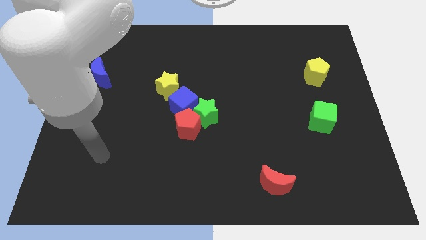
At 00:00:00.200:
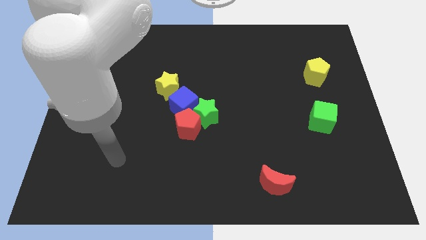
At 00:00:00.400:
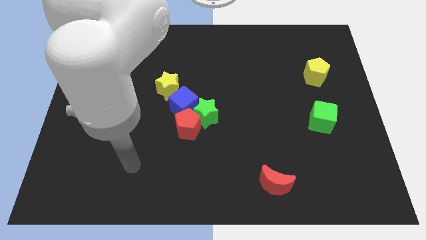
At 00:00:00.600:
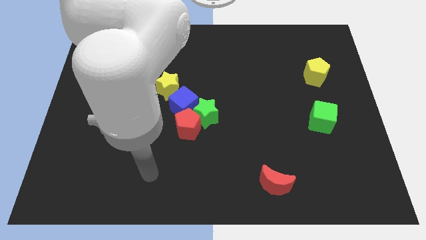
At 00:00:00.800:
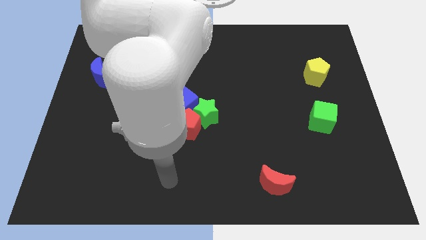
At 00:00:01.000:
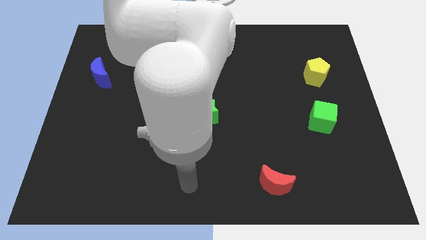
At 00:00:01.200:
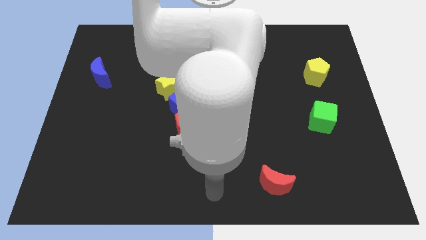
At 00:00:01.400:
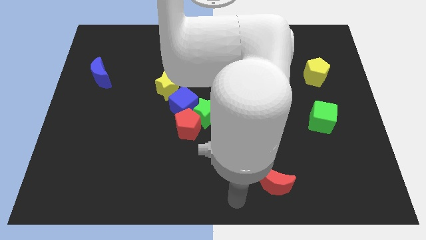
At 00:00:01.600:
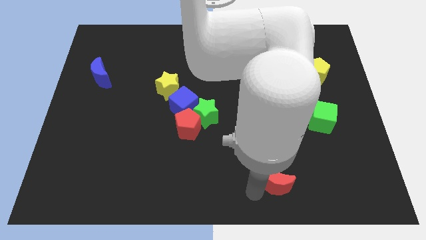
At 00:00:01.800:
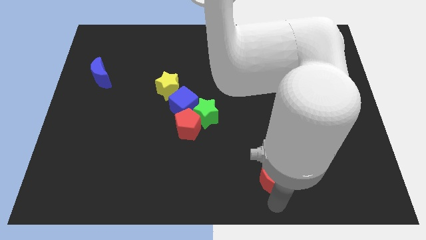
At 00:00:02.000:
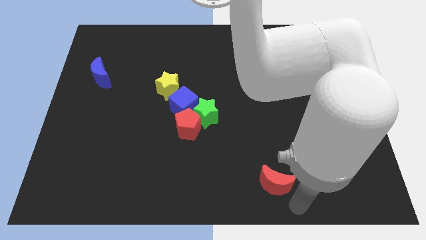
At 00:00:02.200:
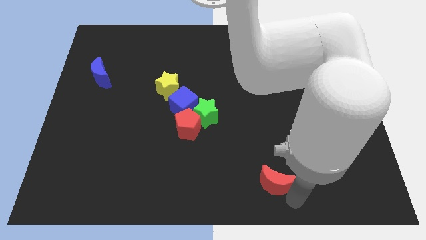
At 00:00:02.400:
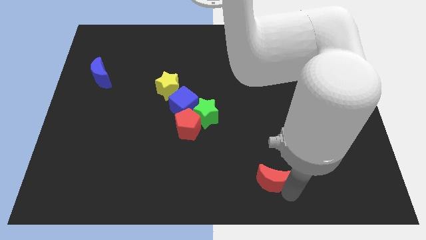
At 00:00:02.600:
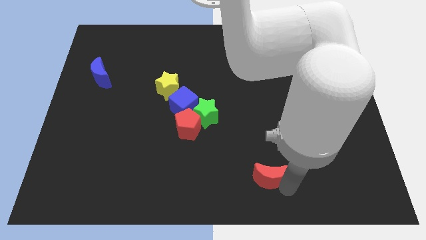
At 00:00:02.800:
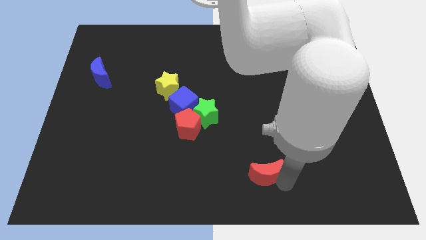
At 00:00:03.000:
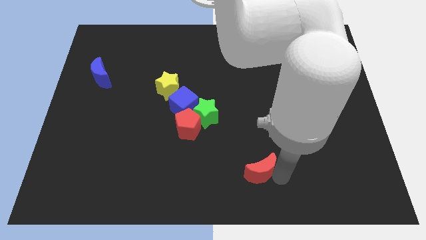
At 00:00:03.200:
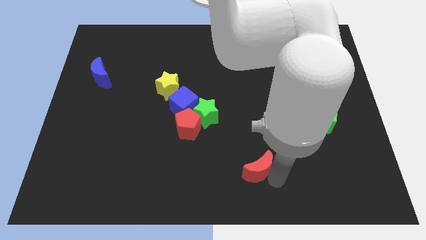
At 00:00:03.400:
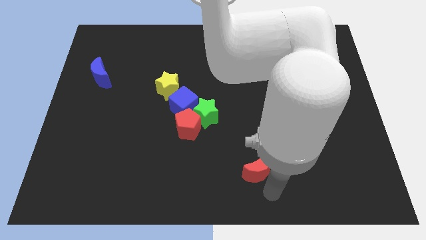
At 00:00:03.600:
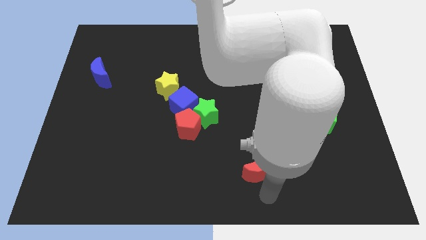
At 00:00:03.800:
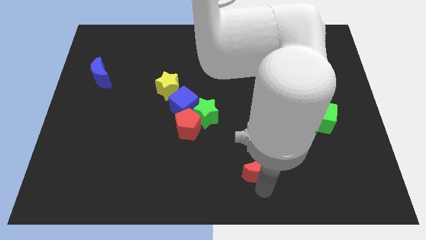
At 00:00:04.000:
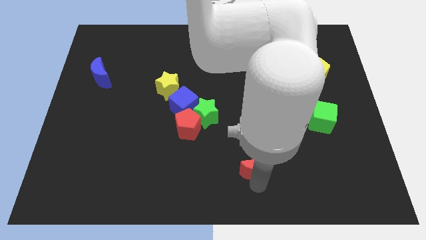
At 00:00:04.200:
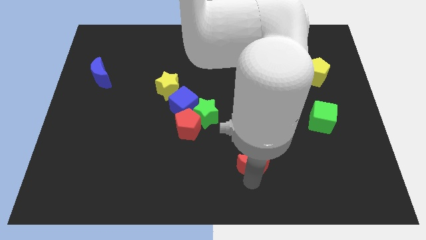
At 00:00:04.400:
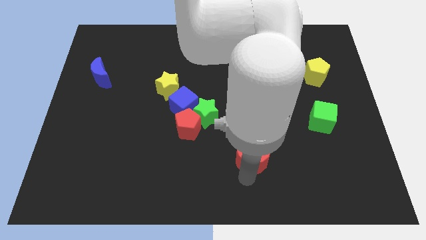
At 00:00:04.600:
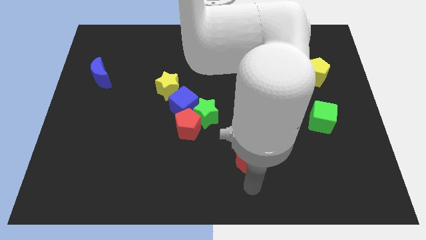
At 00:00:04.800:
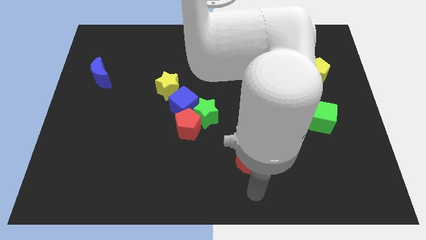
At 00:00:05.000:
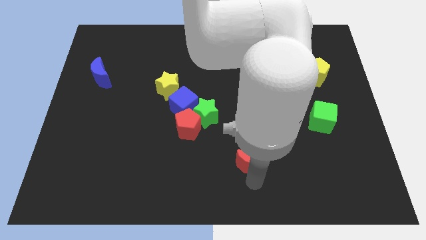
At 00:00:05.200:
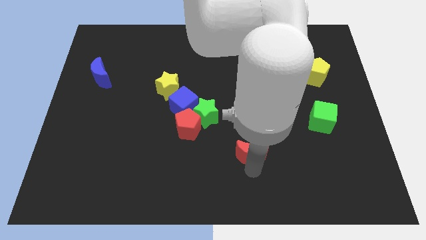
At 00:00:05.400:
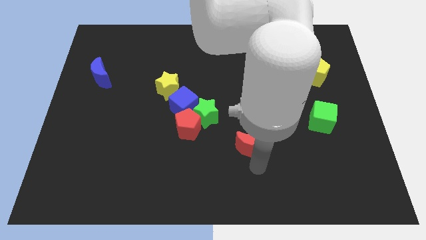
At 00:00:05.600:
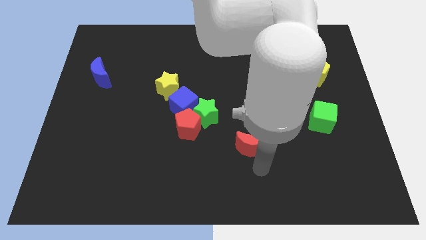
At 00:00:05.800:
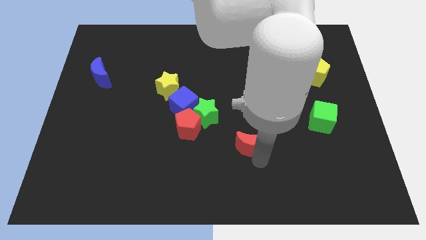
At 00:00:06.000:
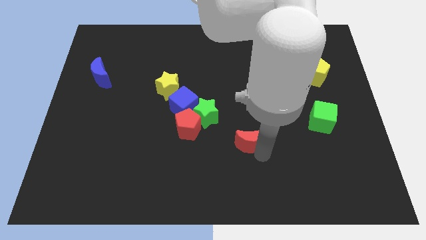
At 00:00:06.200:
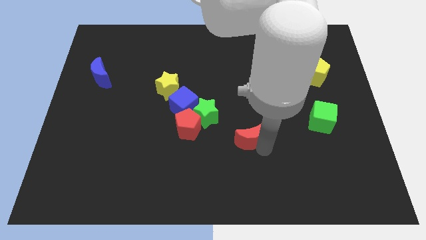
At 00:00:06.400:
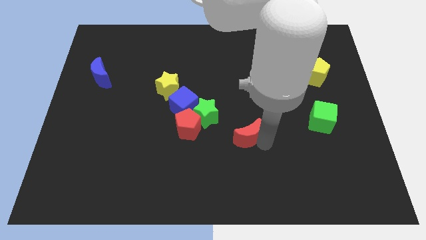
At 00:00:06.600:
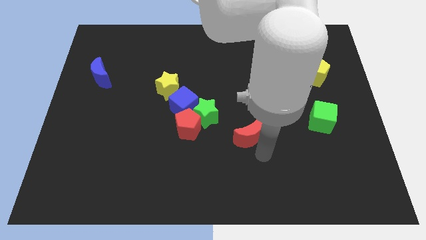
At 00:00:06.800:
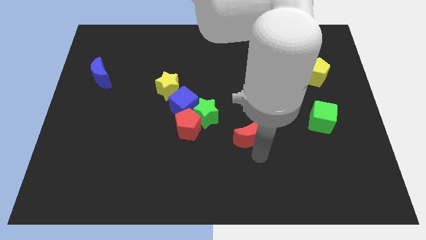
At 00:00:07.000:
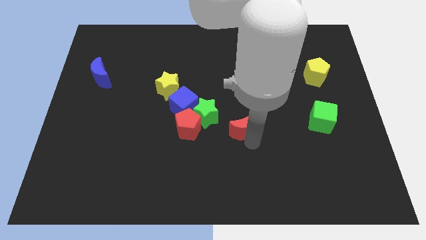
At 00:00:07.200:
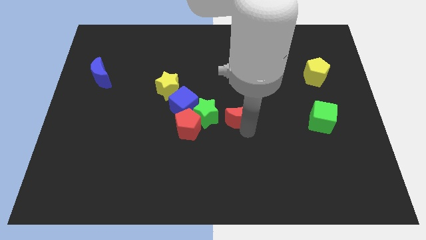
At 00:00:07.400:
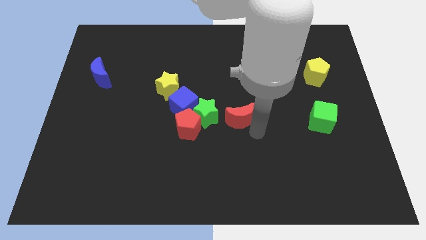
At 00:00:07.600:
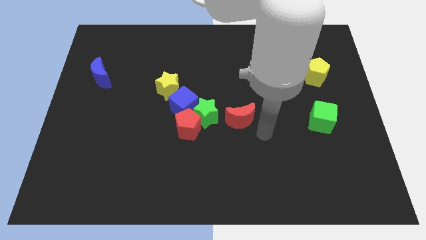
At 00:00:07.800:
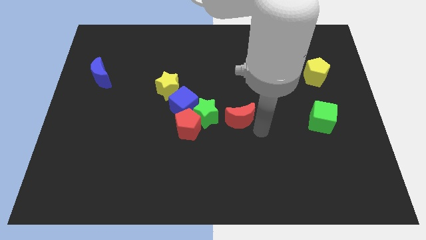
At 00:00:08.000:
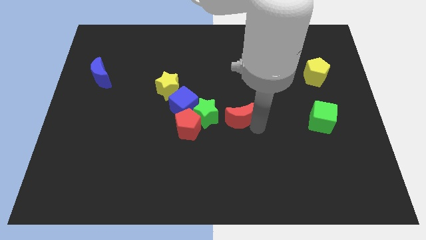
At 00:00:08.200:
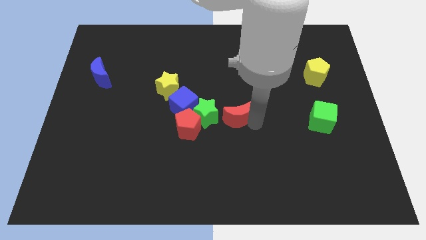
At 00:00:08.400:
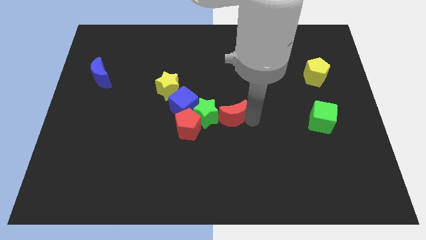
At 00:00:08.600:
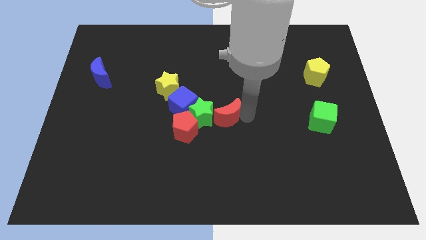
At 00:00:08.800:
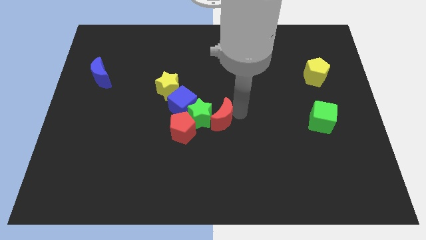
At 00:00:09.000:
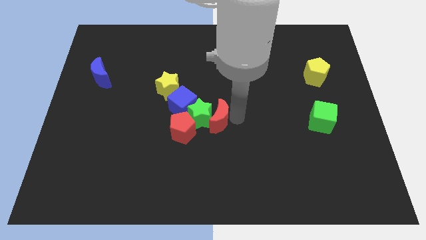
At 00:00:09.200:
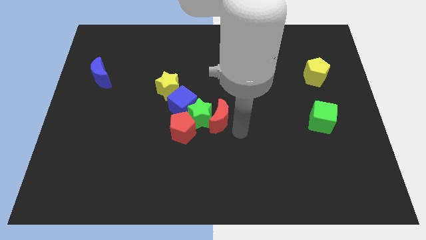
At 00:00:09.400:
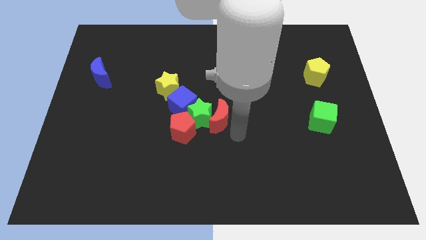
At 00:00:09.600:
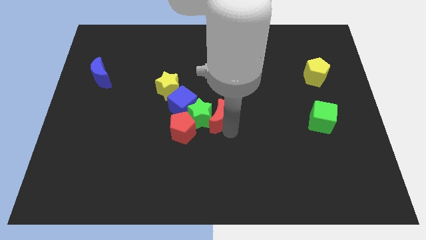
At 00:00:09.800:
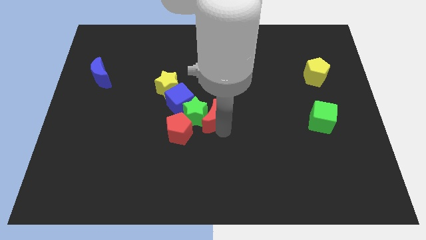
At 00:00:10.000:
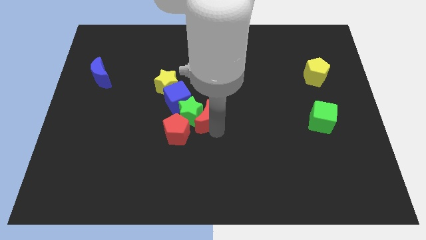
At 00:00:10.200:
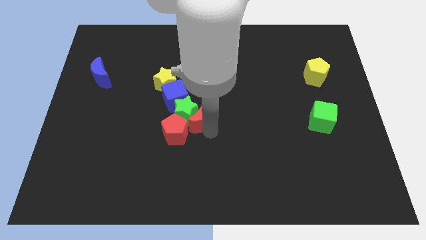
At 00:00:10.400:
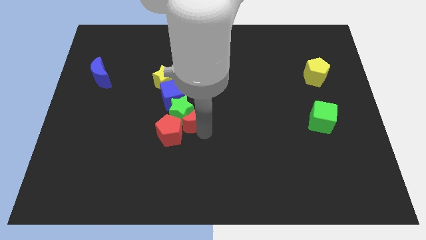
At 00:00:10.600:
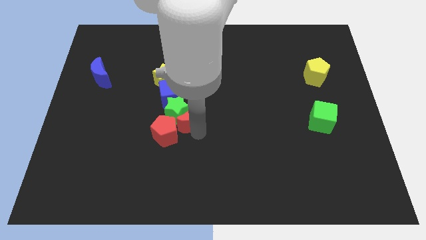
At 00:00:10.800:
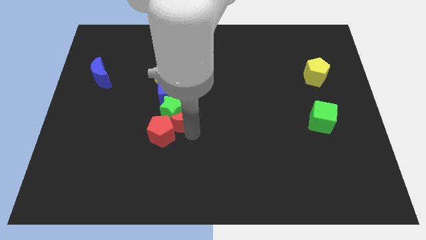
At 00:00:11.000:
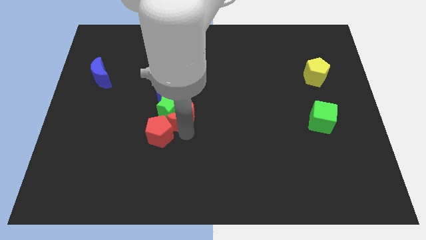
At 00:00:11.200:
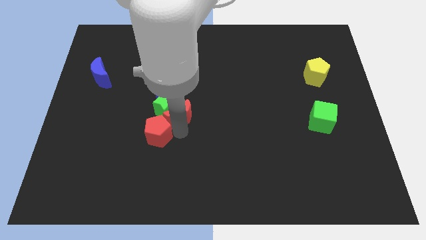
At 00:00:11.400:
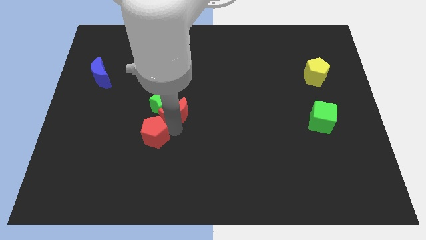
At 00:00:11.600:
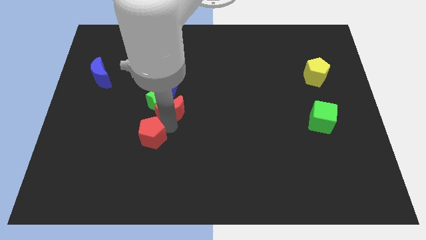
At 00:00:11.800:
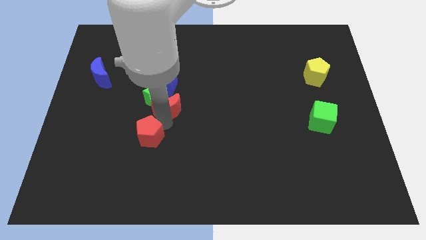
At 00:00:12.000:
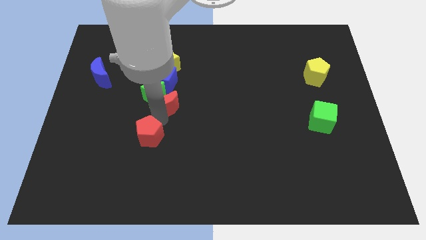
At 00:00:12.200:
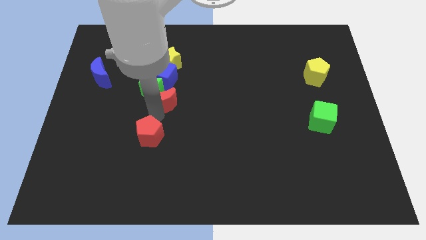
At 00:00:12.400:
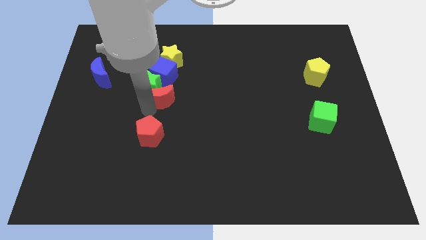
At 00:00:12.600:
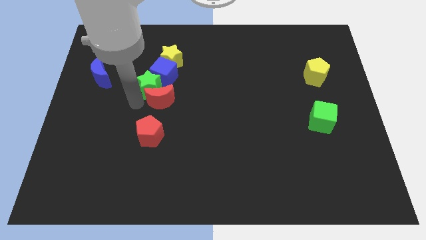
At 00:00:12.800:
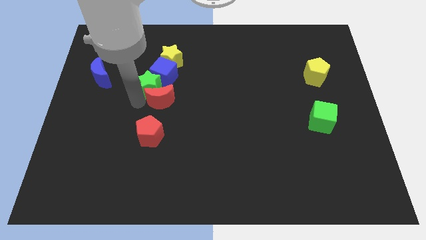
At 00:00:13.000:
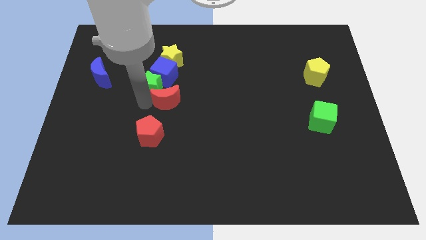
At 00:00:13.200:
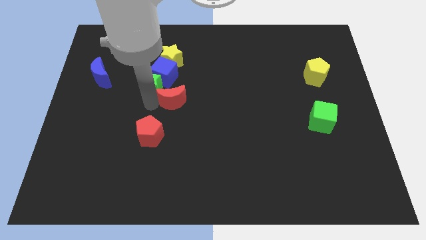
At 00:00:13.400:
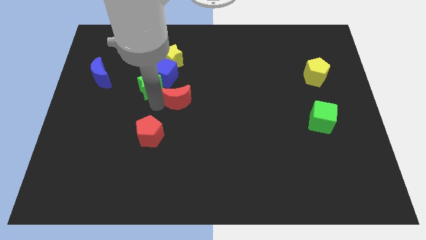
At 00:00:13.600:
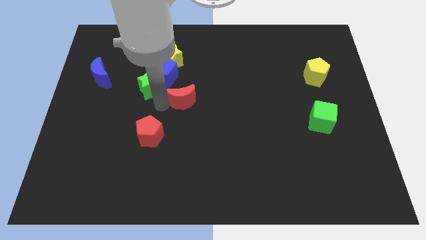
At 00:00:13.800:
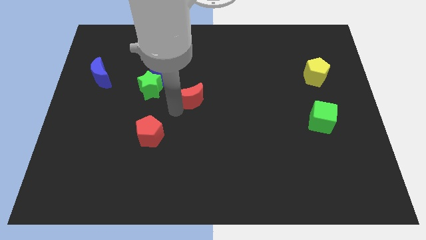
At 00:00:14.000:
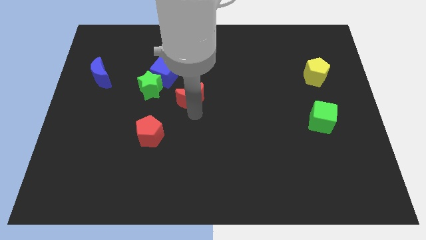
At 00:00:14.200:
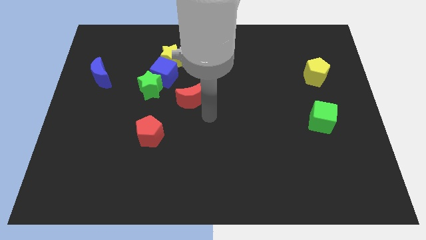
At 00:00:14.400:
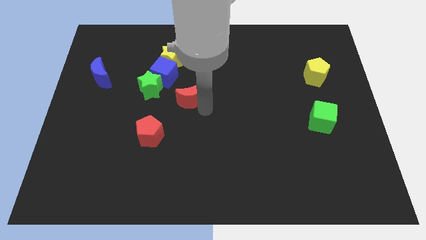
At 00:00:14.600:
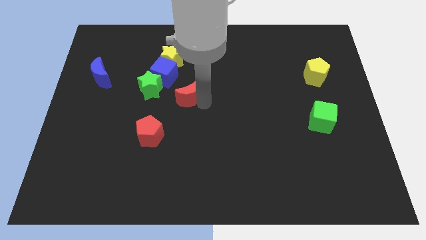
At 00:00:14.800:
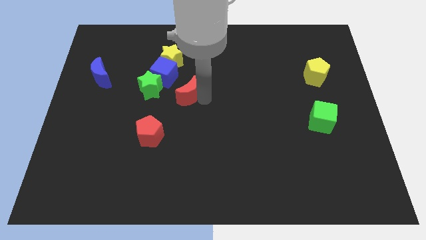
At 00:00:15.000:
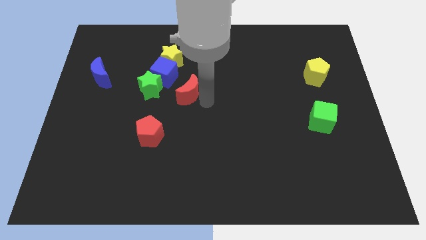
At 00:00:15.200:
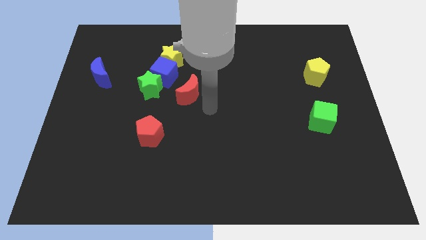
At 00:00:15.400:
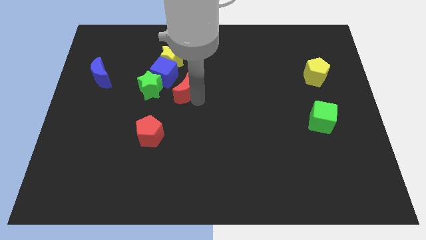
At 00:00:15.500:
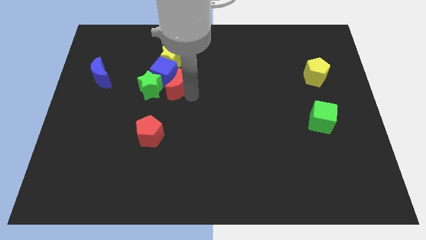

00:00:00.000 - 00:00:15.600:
put the red moon towards the blue cube
